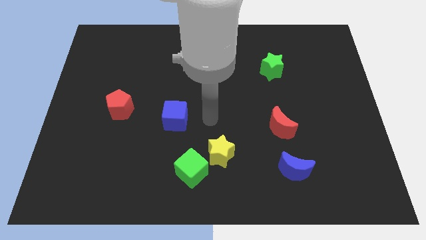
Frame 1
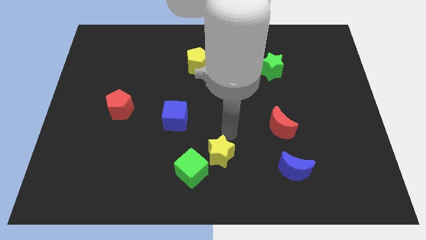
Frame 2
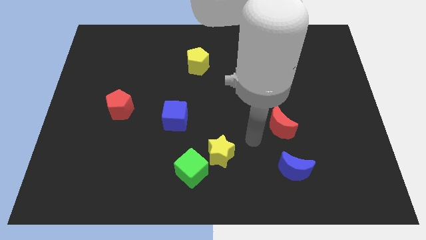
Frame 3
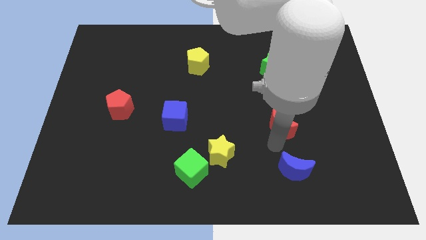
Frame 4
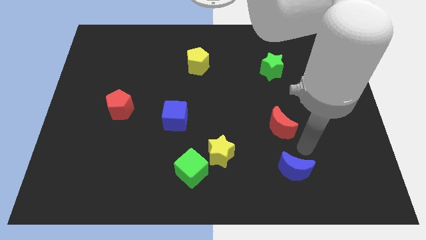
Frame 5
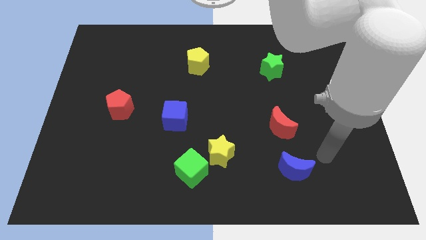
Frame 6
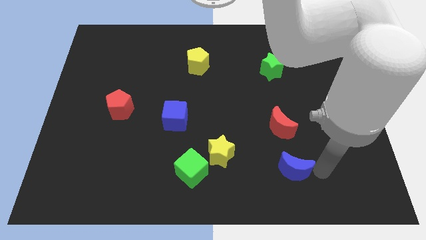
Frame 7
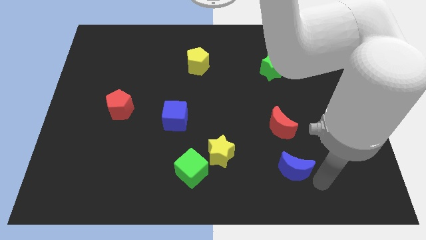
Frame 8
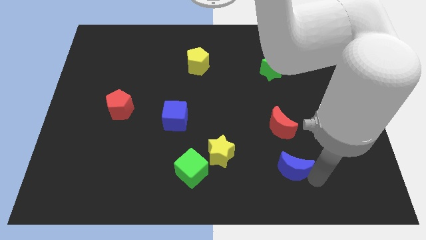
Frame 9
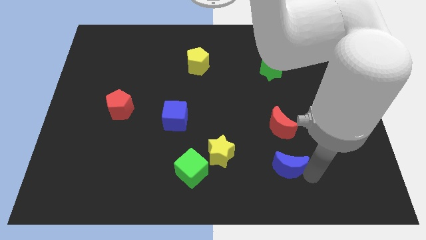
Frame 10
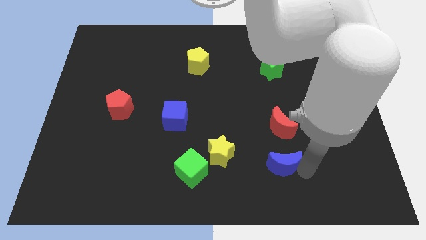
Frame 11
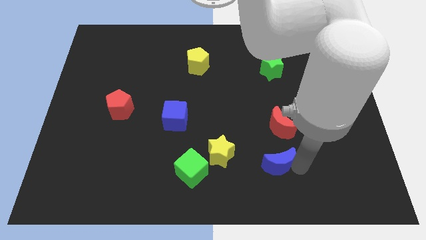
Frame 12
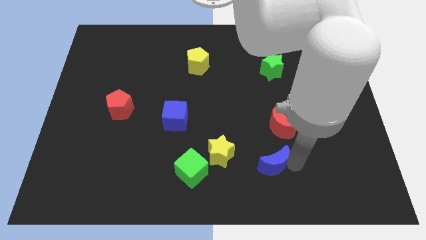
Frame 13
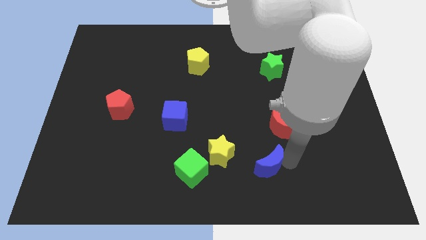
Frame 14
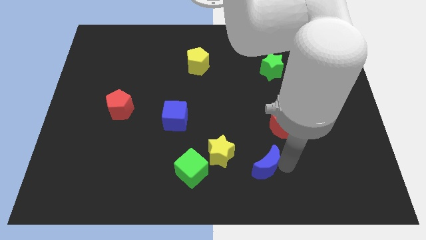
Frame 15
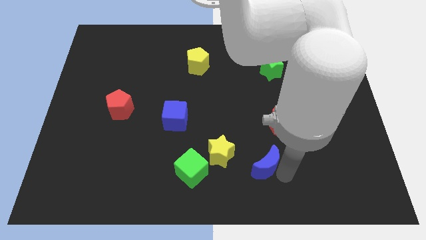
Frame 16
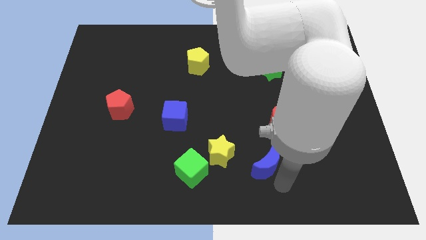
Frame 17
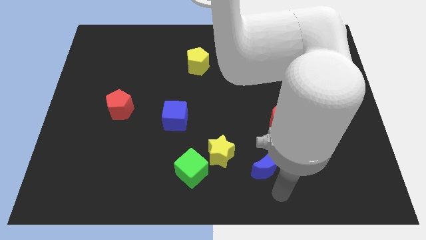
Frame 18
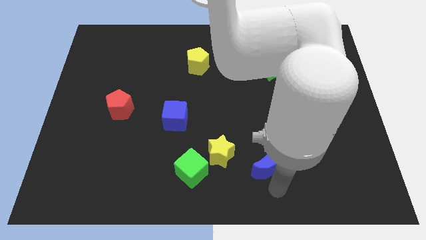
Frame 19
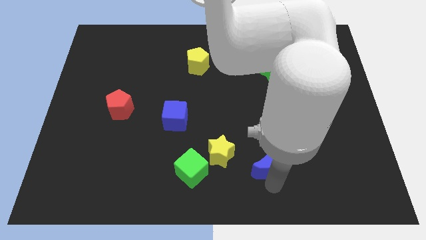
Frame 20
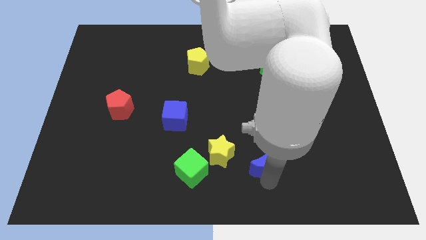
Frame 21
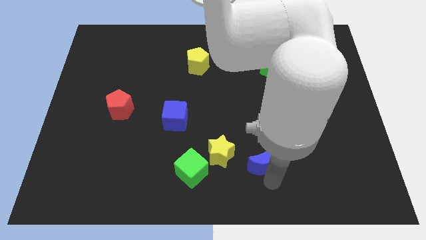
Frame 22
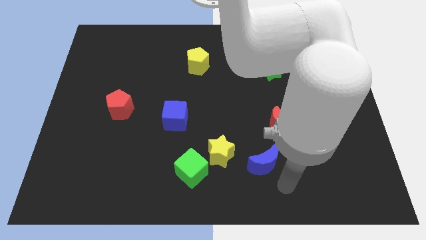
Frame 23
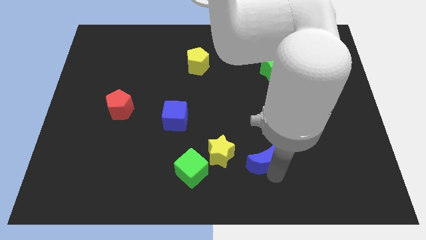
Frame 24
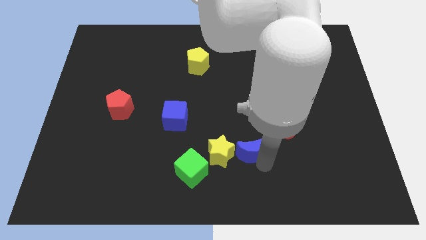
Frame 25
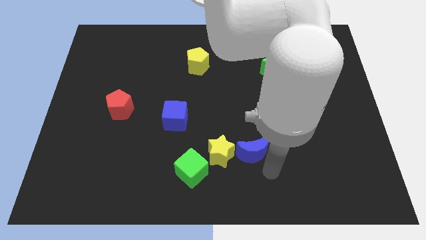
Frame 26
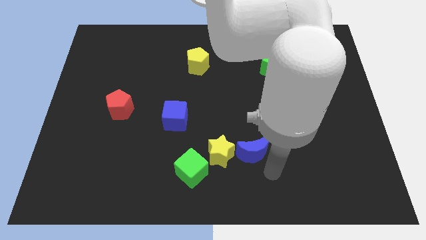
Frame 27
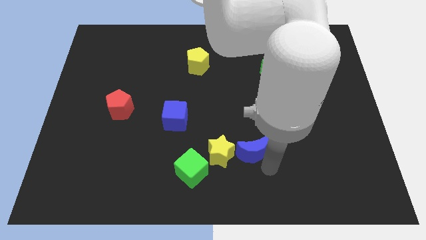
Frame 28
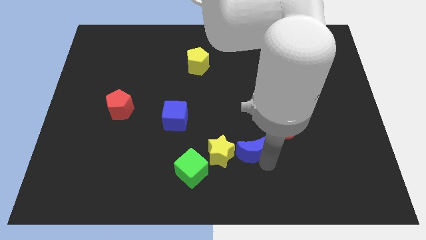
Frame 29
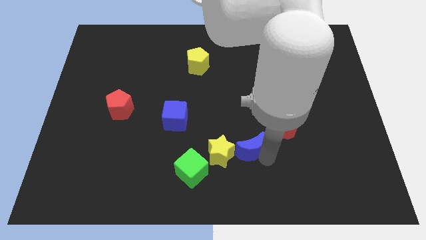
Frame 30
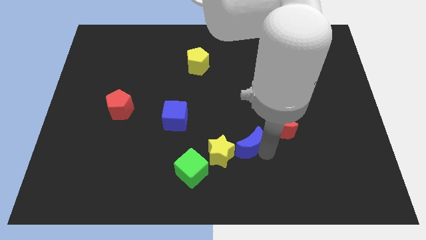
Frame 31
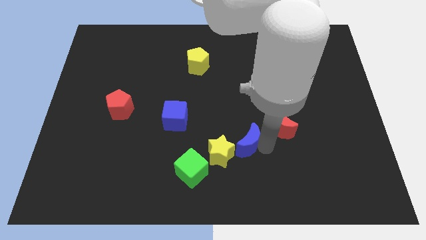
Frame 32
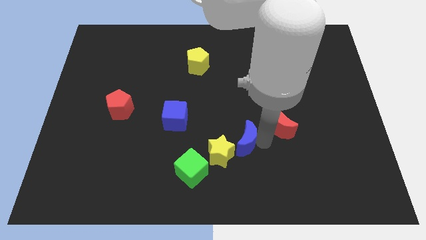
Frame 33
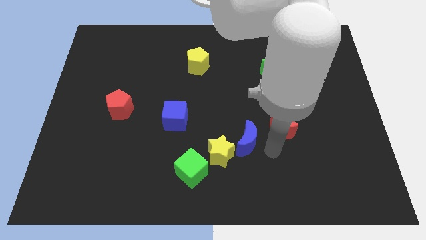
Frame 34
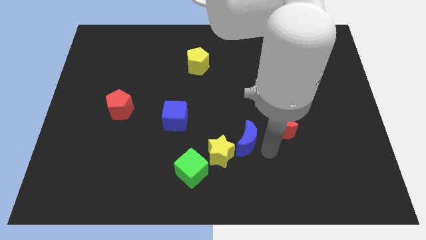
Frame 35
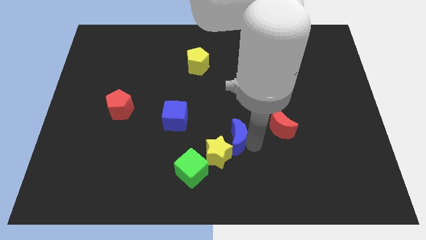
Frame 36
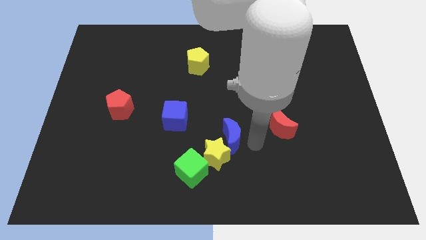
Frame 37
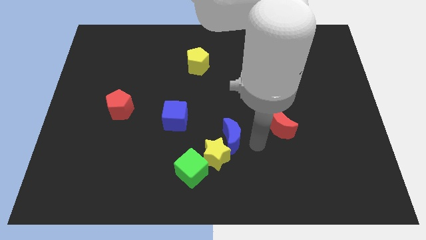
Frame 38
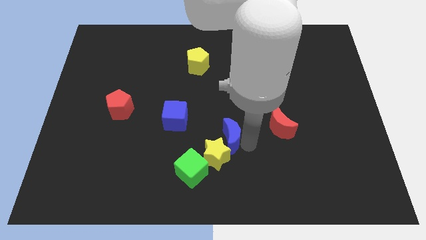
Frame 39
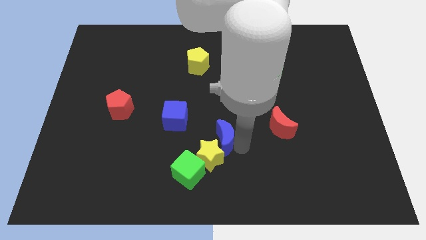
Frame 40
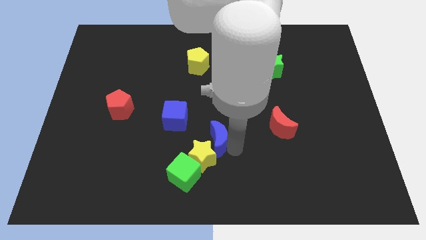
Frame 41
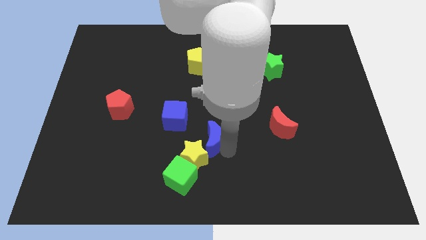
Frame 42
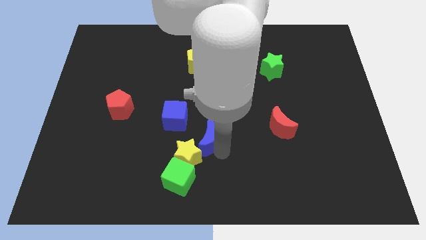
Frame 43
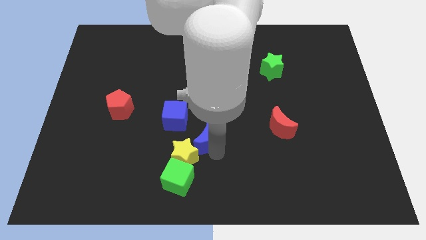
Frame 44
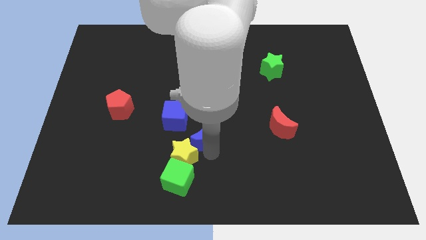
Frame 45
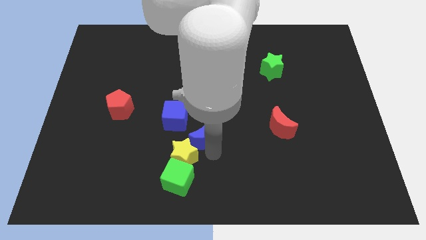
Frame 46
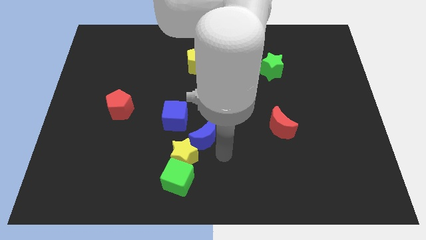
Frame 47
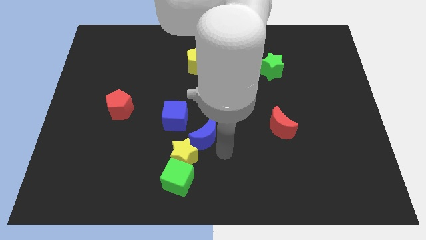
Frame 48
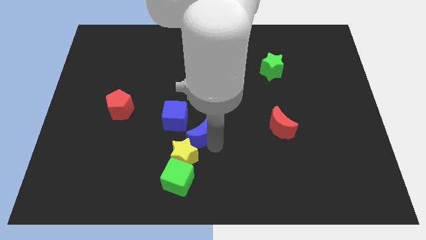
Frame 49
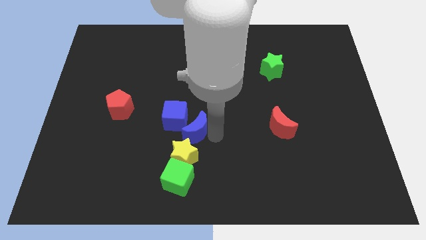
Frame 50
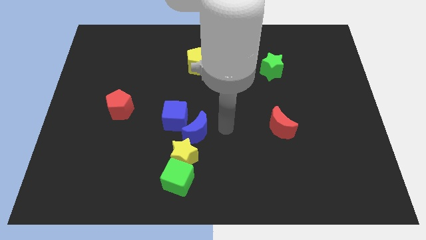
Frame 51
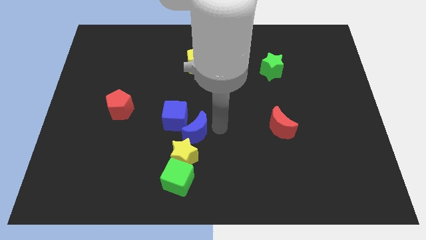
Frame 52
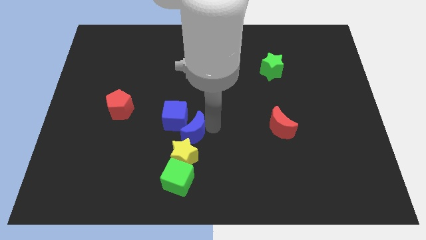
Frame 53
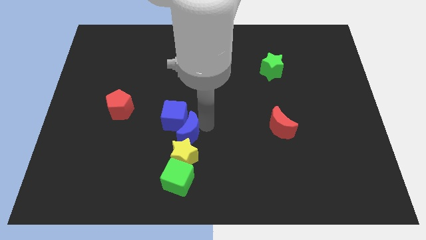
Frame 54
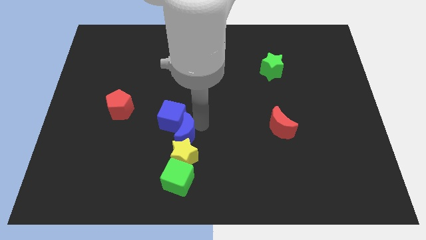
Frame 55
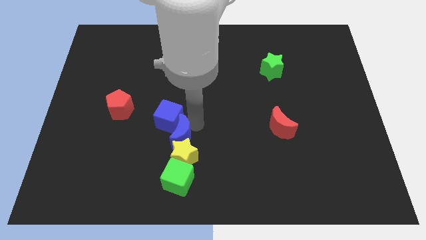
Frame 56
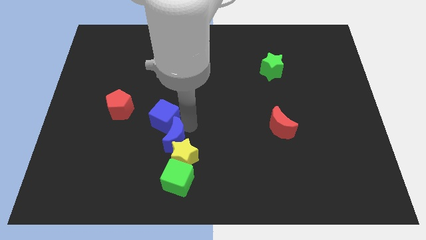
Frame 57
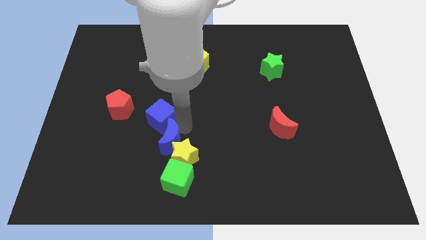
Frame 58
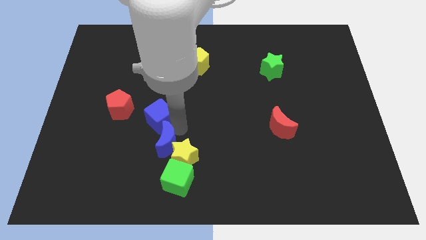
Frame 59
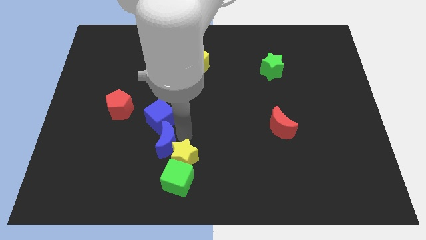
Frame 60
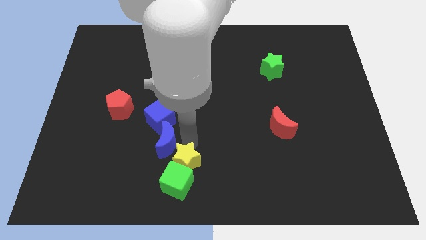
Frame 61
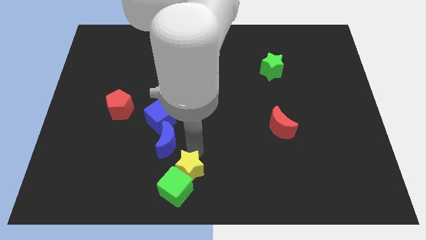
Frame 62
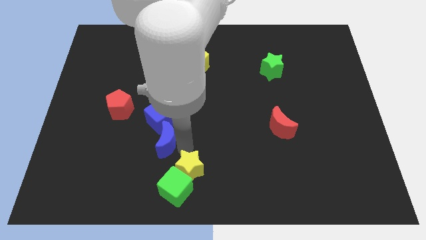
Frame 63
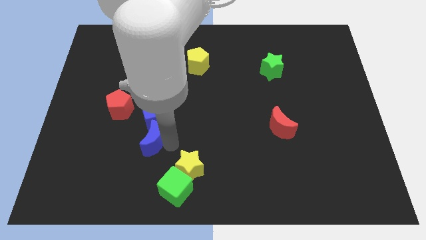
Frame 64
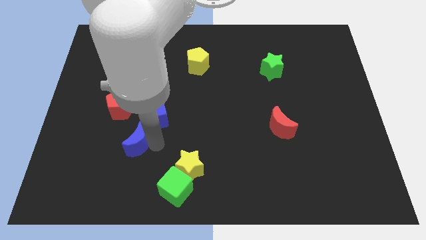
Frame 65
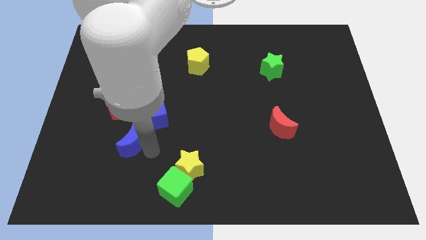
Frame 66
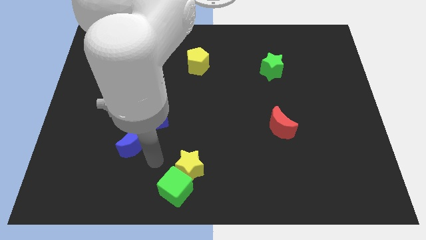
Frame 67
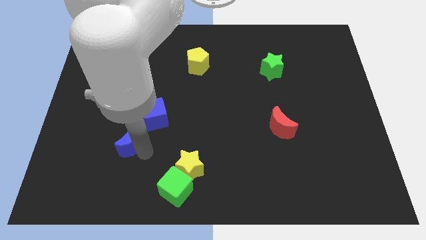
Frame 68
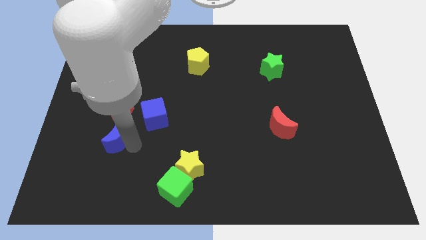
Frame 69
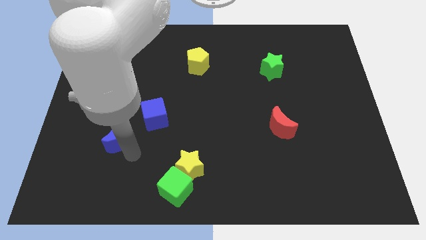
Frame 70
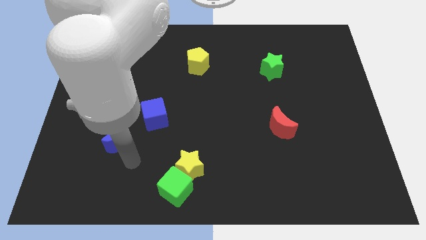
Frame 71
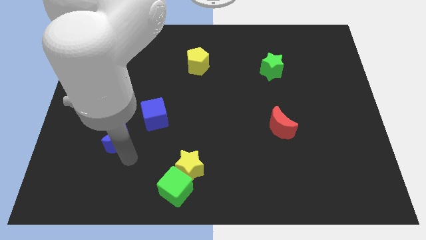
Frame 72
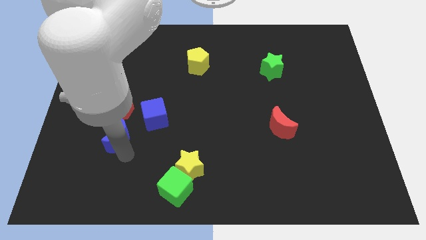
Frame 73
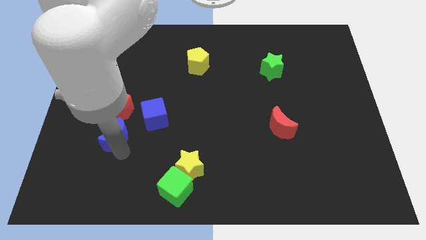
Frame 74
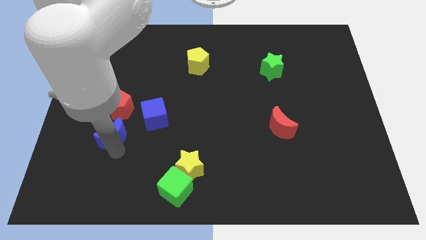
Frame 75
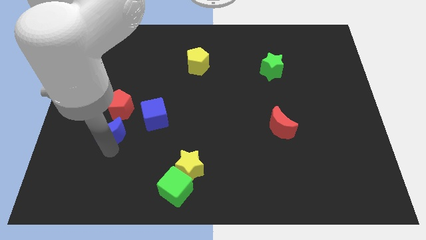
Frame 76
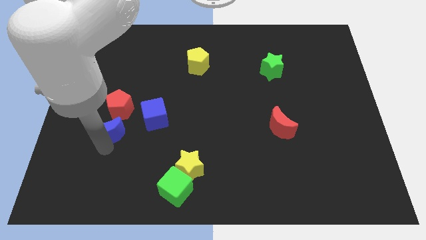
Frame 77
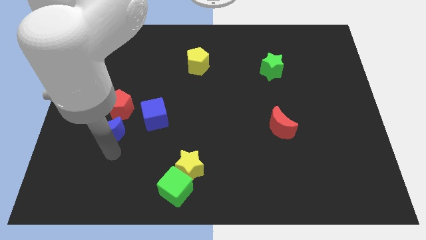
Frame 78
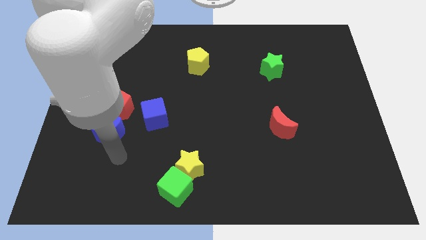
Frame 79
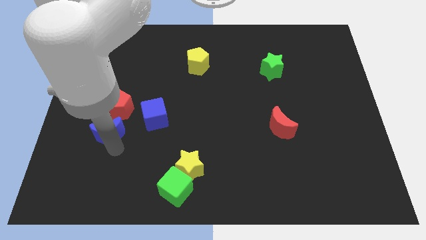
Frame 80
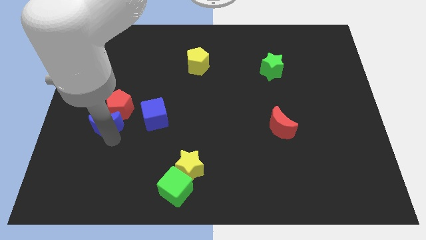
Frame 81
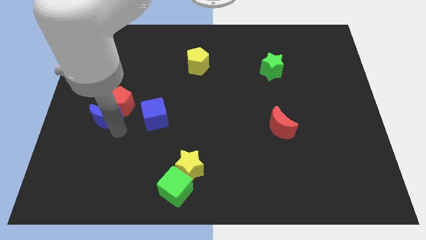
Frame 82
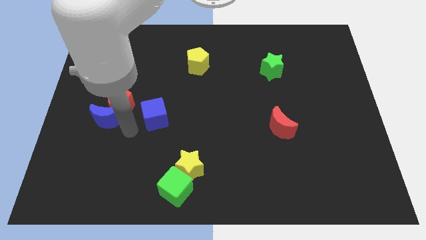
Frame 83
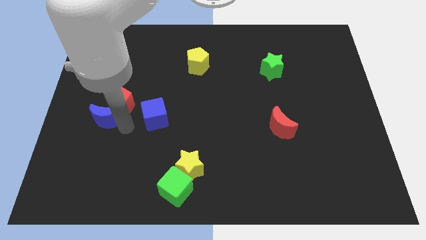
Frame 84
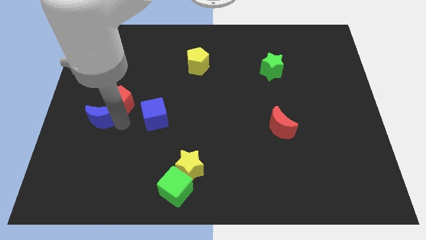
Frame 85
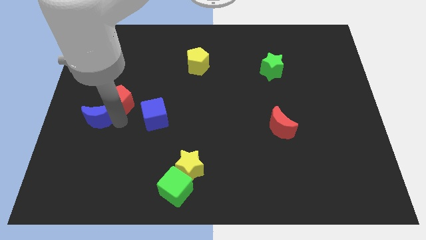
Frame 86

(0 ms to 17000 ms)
move the blue moon to the left side
